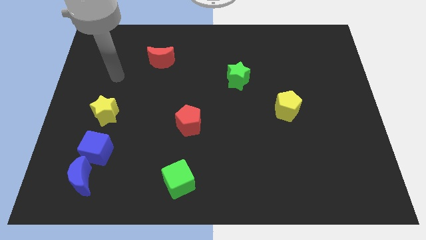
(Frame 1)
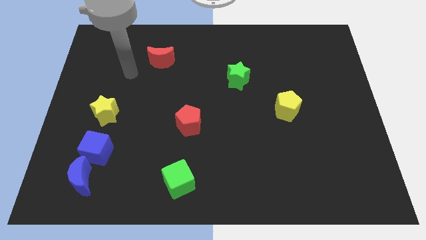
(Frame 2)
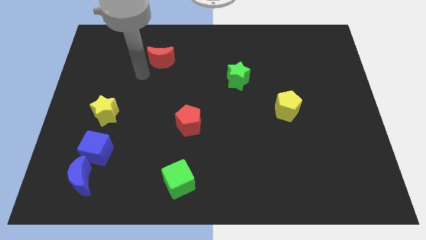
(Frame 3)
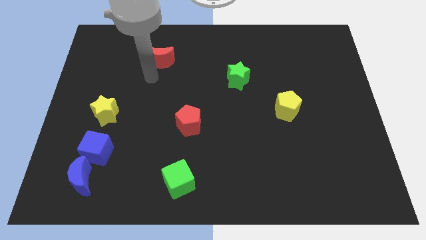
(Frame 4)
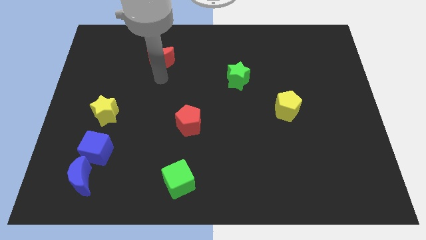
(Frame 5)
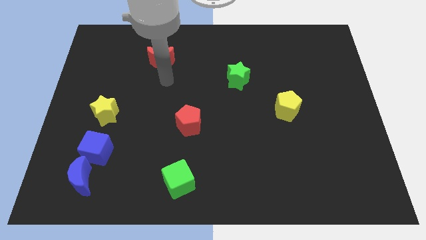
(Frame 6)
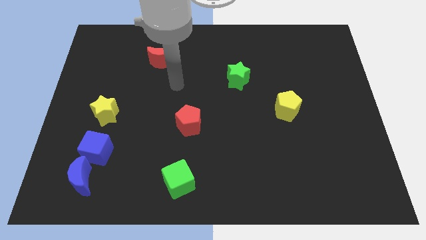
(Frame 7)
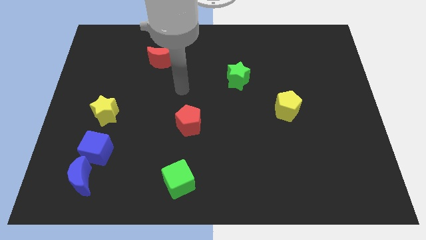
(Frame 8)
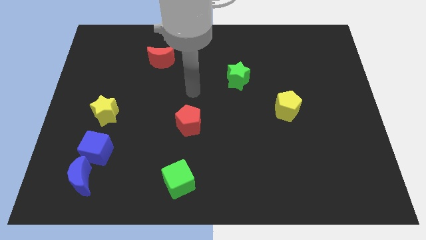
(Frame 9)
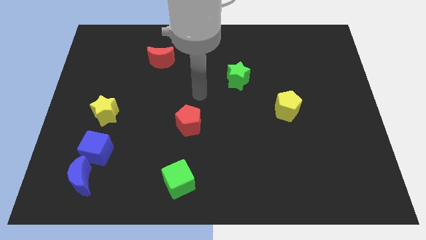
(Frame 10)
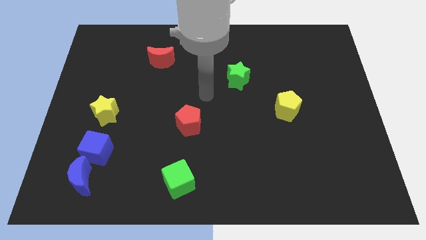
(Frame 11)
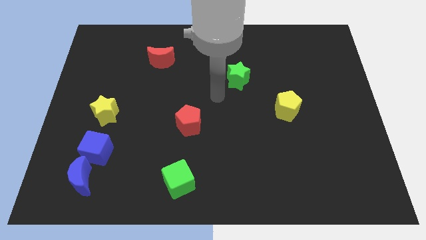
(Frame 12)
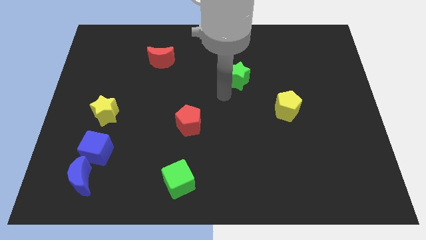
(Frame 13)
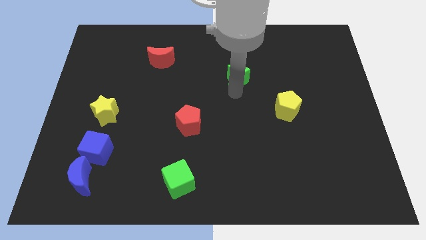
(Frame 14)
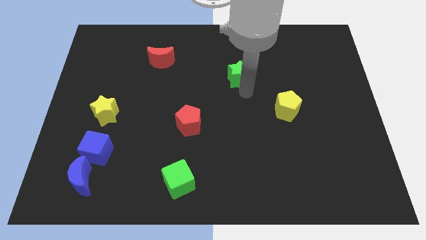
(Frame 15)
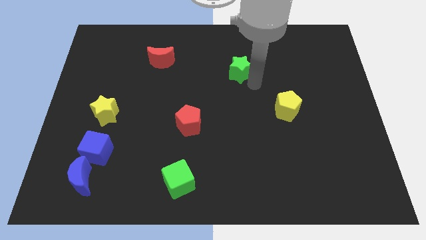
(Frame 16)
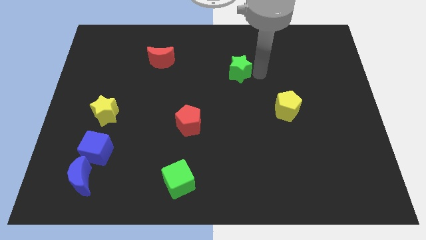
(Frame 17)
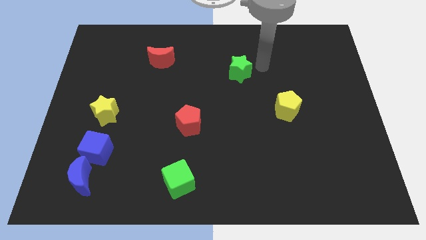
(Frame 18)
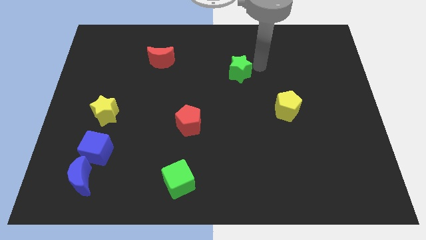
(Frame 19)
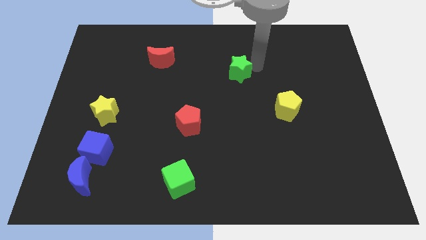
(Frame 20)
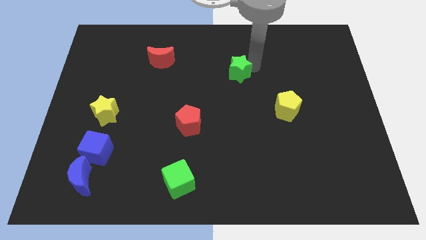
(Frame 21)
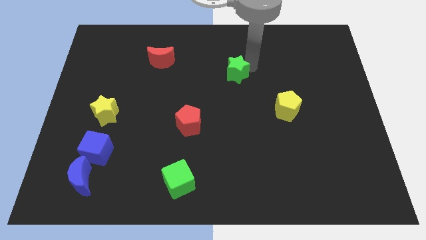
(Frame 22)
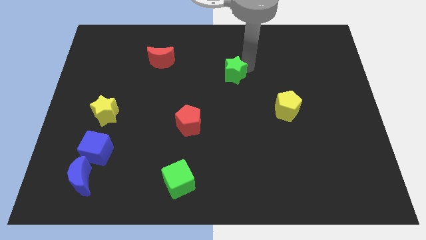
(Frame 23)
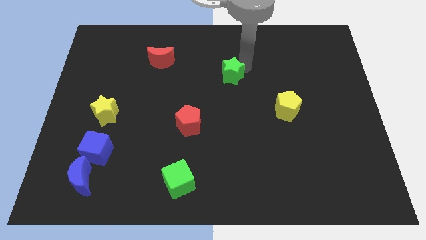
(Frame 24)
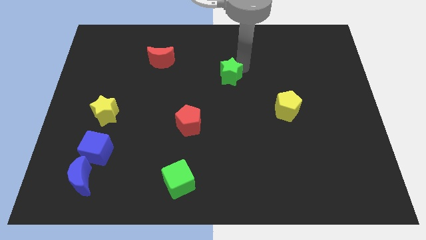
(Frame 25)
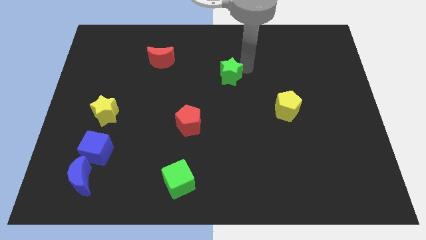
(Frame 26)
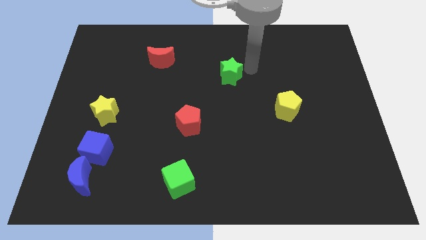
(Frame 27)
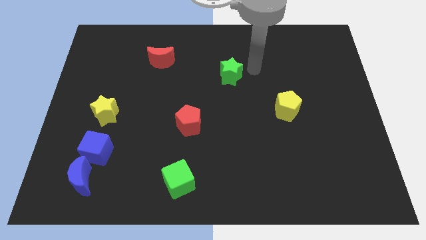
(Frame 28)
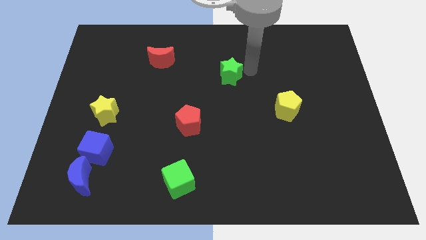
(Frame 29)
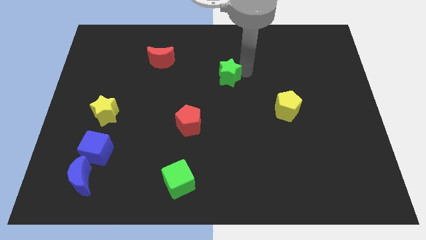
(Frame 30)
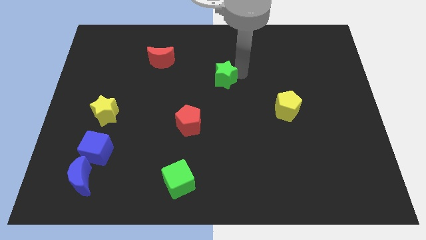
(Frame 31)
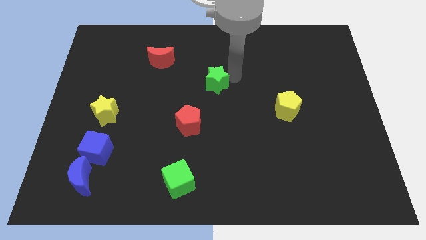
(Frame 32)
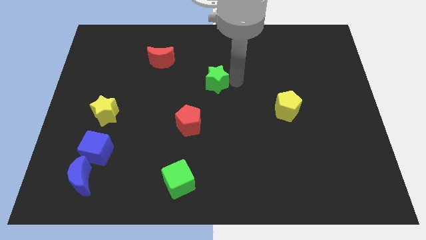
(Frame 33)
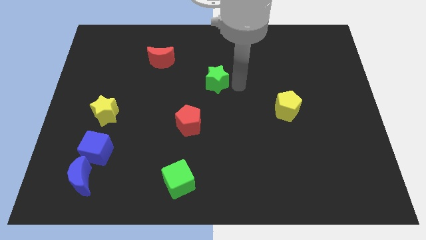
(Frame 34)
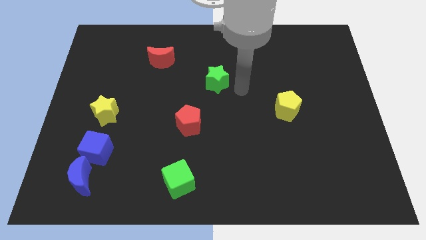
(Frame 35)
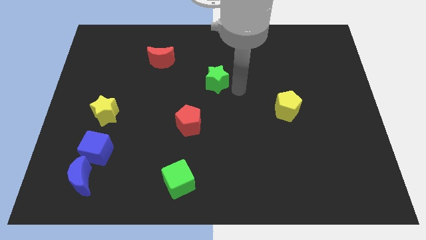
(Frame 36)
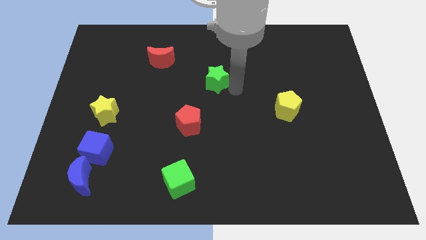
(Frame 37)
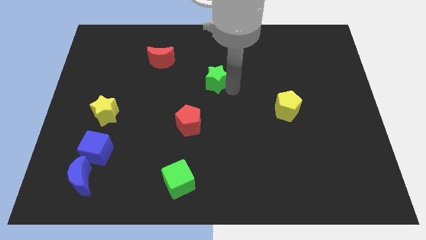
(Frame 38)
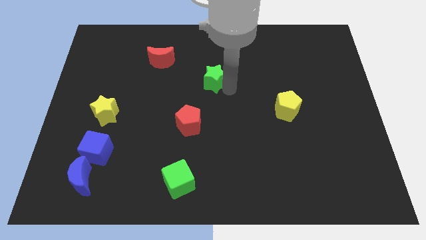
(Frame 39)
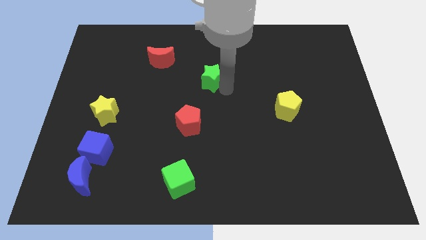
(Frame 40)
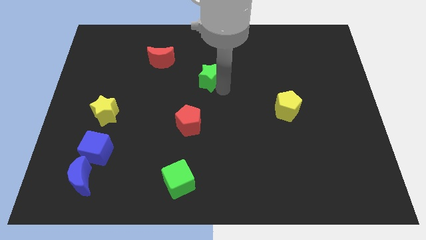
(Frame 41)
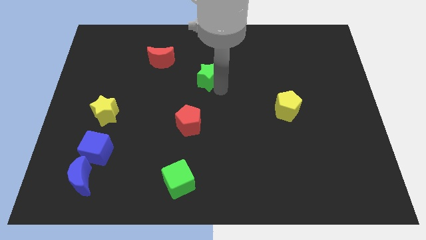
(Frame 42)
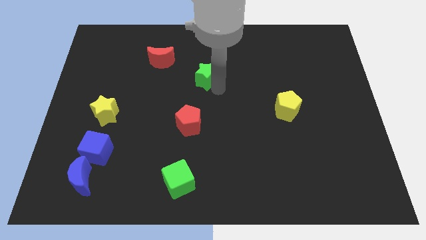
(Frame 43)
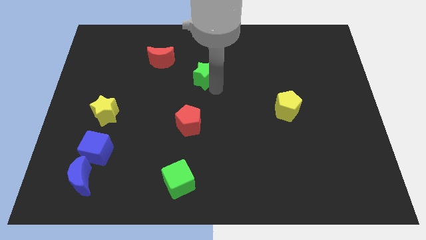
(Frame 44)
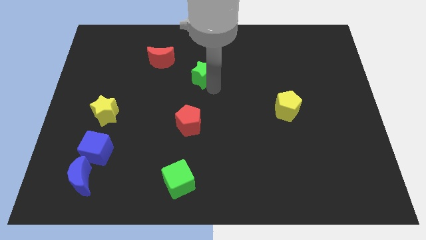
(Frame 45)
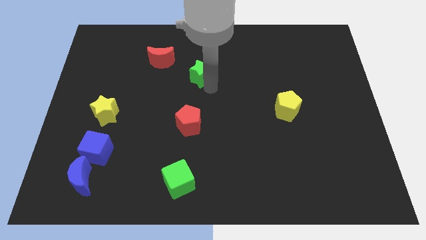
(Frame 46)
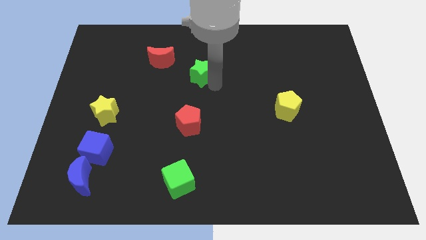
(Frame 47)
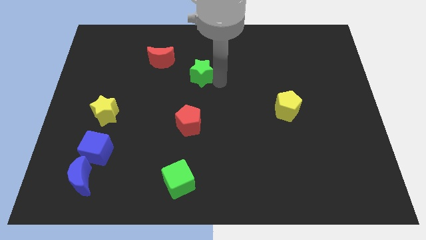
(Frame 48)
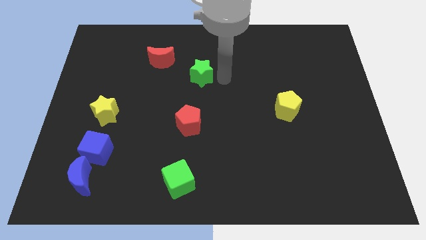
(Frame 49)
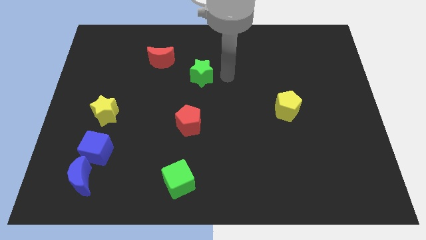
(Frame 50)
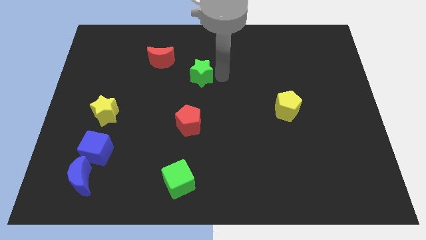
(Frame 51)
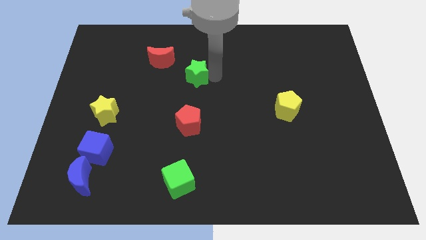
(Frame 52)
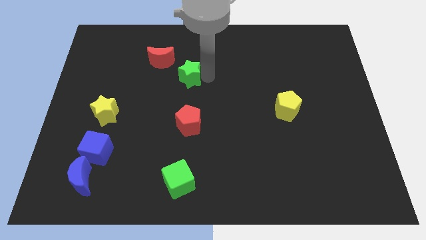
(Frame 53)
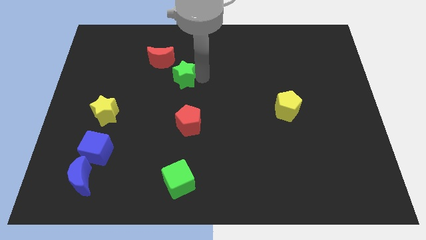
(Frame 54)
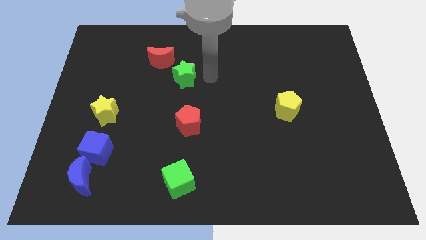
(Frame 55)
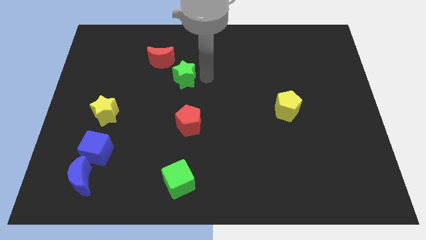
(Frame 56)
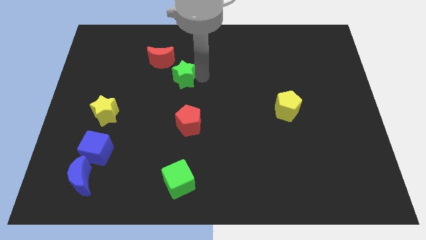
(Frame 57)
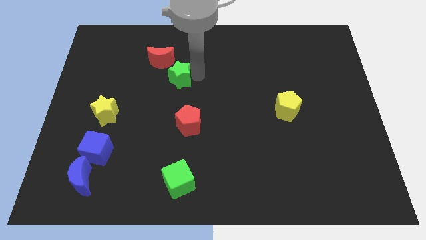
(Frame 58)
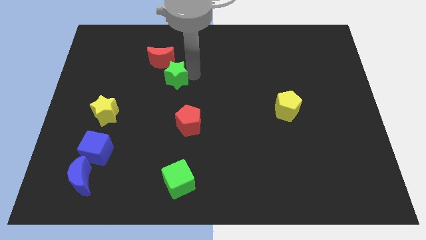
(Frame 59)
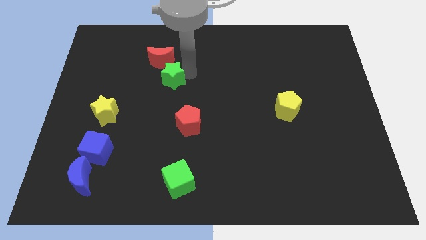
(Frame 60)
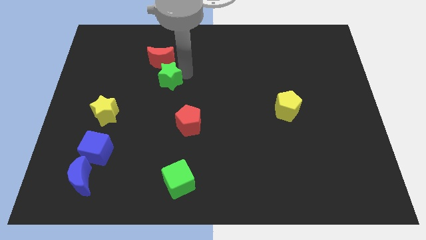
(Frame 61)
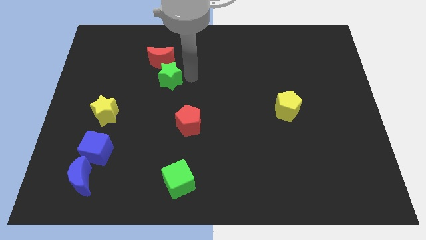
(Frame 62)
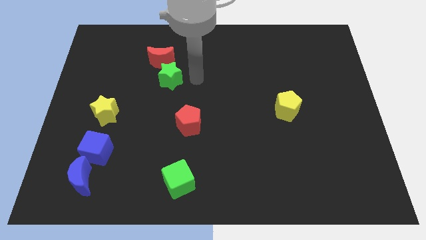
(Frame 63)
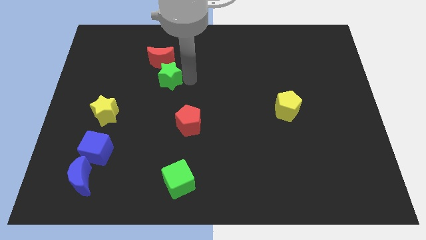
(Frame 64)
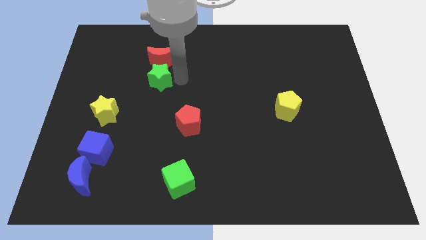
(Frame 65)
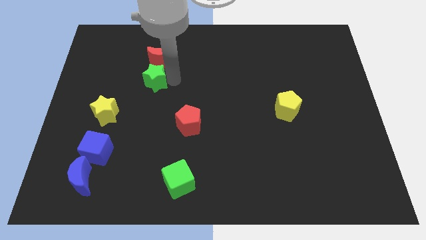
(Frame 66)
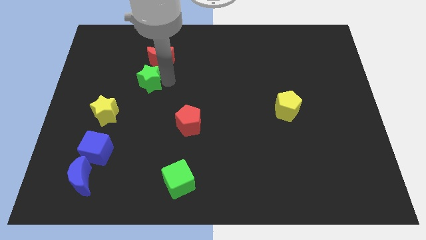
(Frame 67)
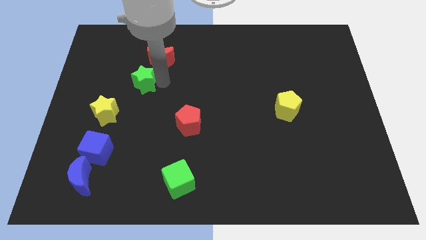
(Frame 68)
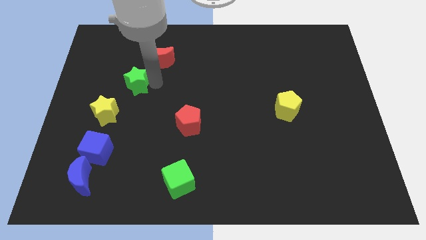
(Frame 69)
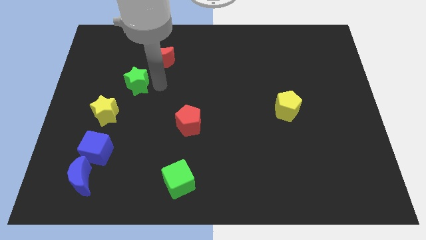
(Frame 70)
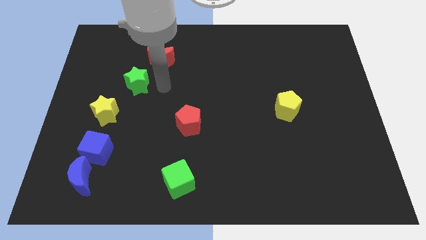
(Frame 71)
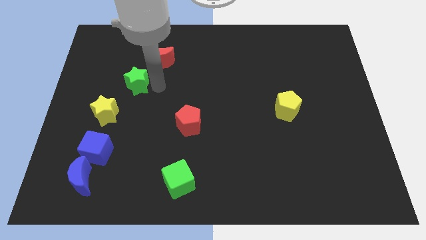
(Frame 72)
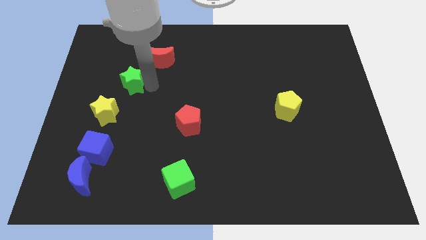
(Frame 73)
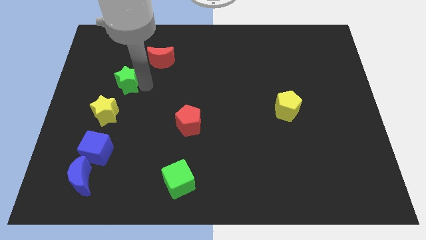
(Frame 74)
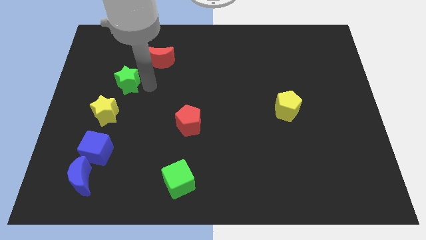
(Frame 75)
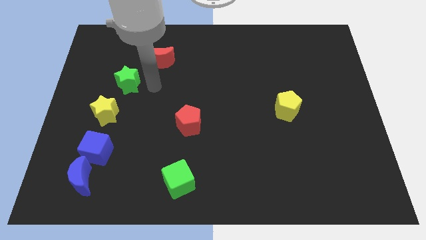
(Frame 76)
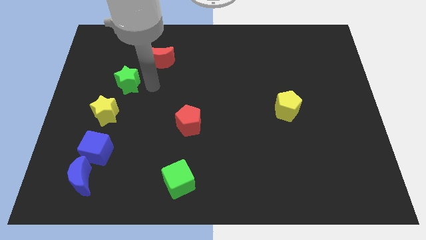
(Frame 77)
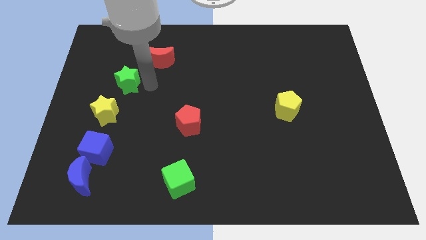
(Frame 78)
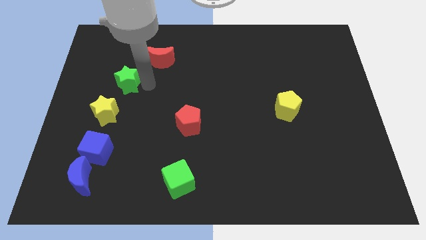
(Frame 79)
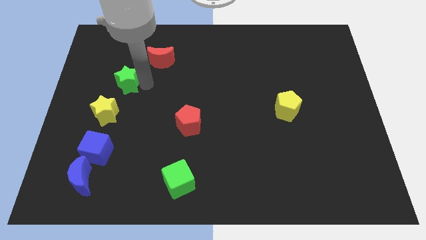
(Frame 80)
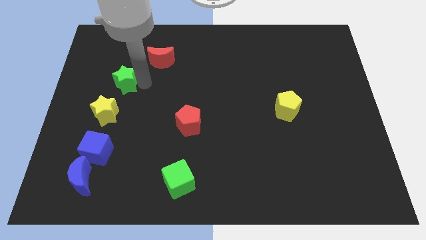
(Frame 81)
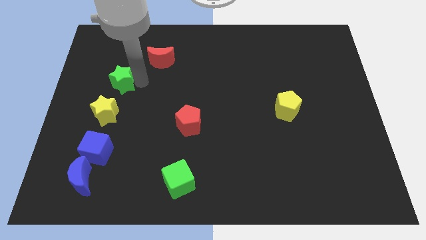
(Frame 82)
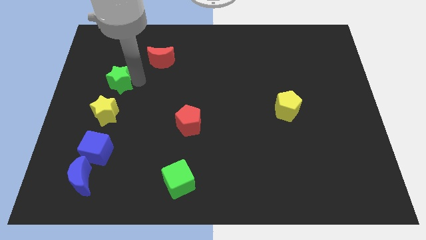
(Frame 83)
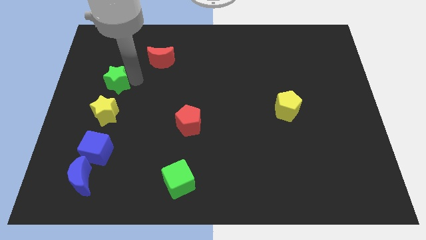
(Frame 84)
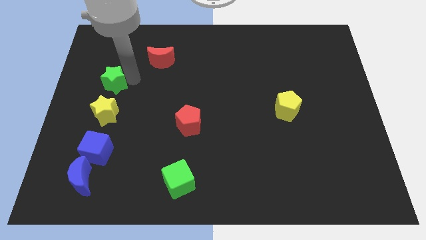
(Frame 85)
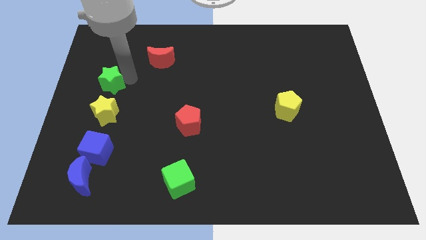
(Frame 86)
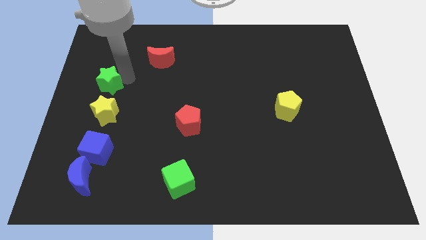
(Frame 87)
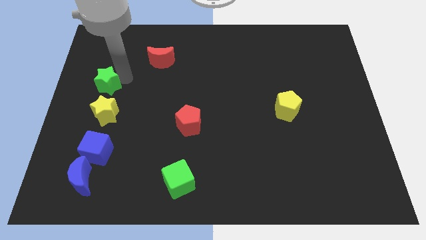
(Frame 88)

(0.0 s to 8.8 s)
slide the green star to the left side
